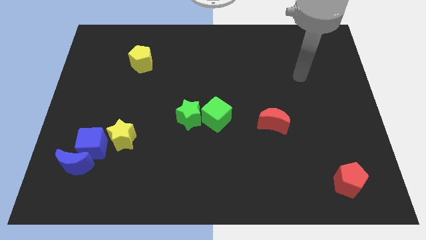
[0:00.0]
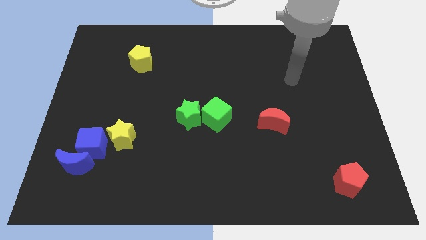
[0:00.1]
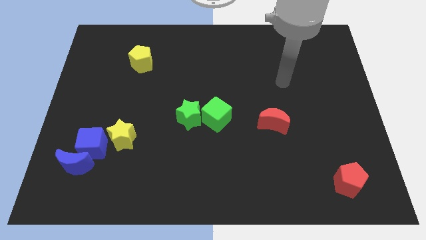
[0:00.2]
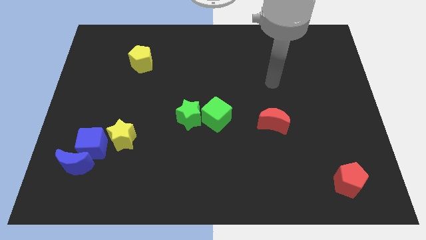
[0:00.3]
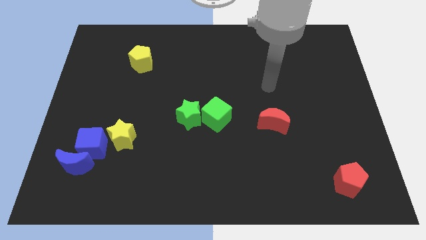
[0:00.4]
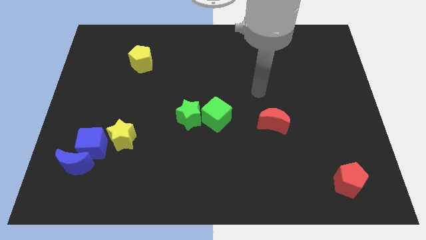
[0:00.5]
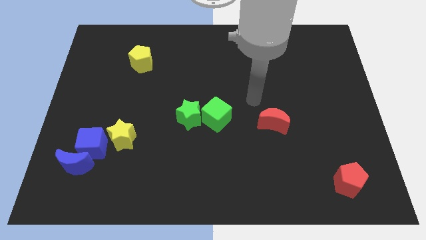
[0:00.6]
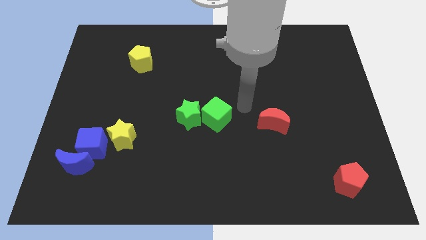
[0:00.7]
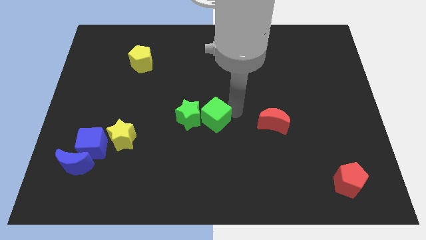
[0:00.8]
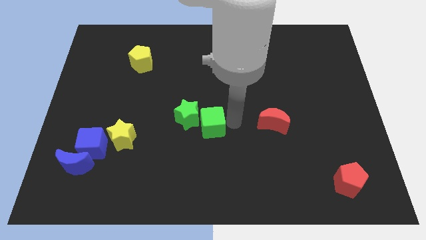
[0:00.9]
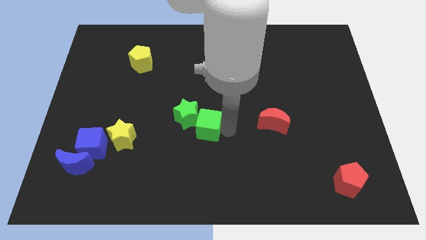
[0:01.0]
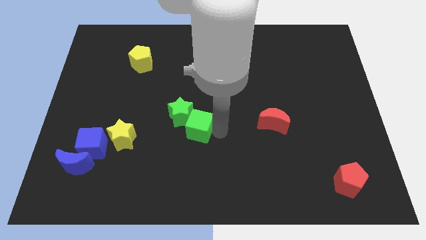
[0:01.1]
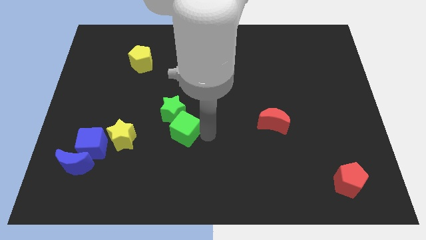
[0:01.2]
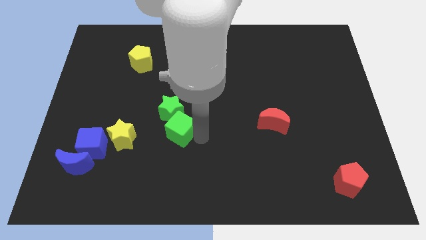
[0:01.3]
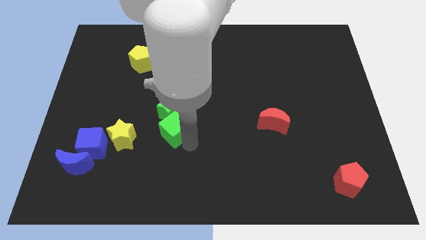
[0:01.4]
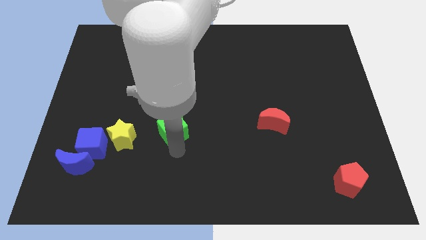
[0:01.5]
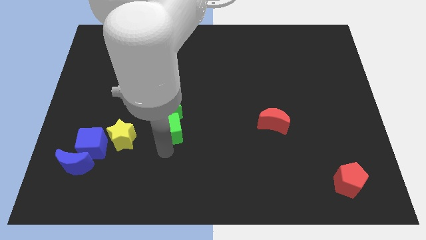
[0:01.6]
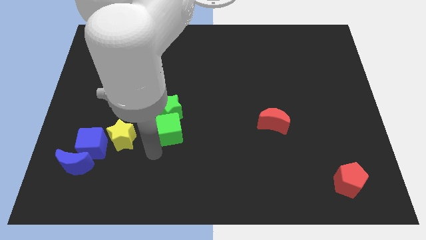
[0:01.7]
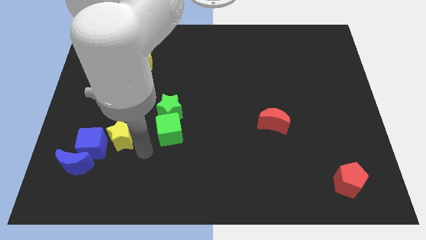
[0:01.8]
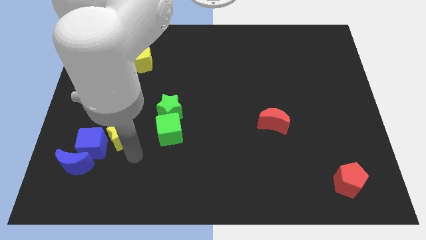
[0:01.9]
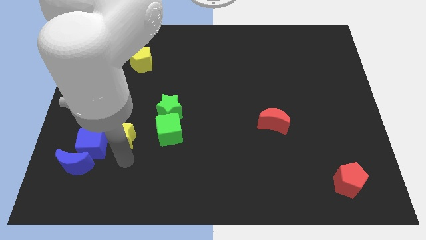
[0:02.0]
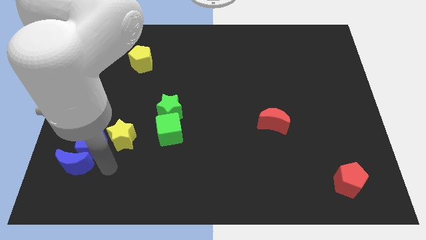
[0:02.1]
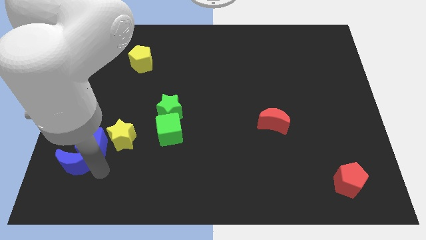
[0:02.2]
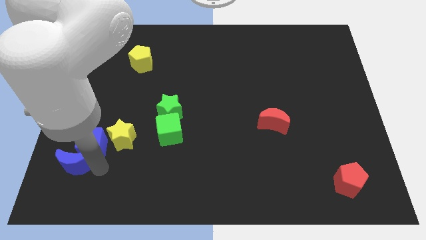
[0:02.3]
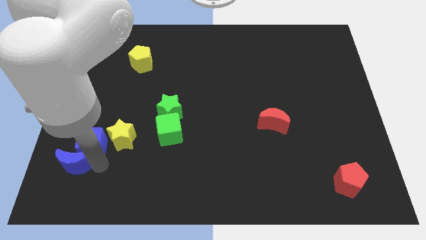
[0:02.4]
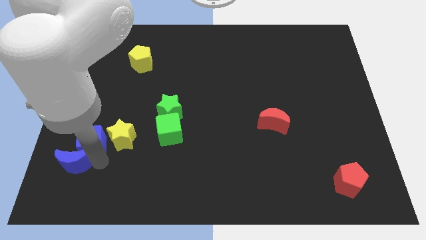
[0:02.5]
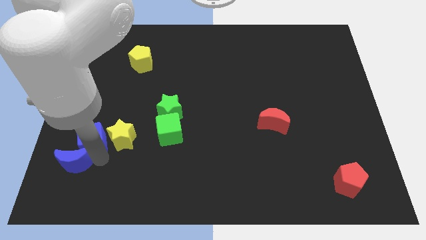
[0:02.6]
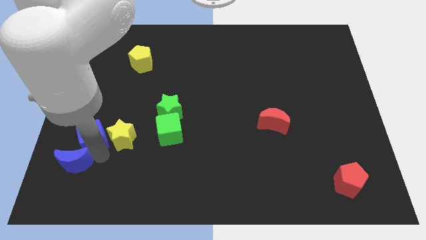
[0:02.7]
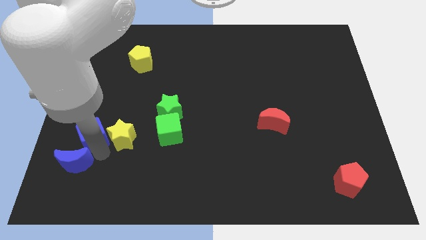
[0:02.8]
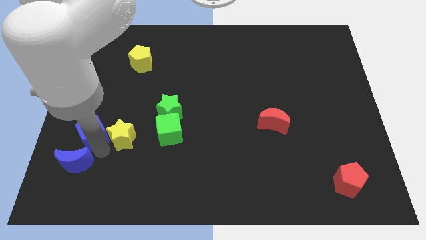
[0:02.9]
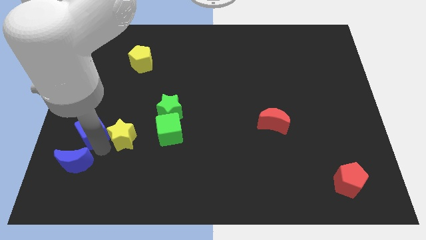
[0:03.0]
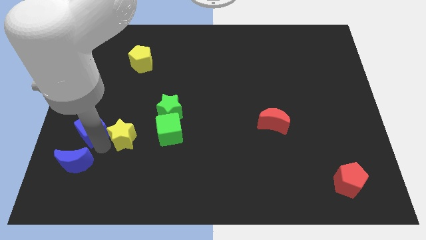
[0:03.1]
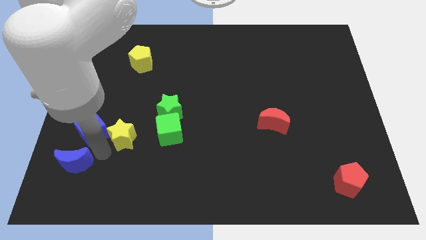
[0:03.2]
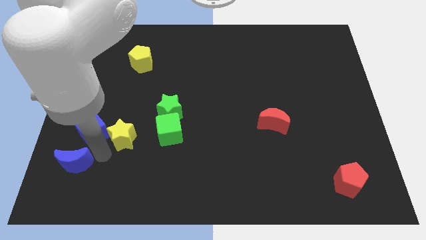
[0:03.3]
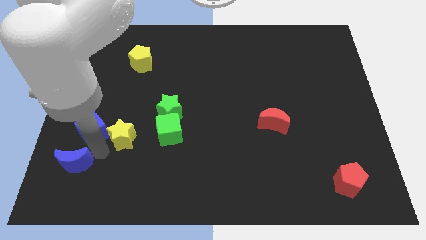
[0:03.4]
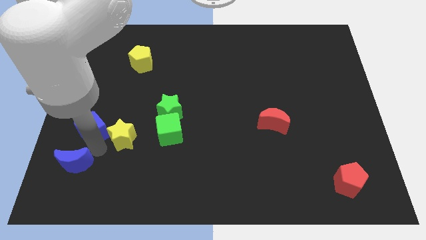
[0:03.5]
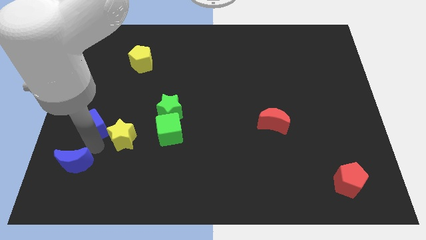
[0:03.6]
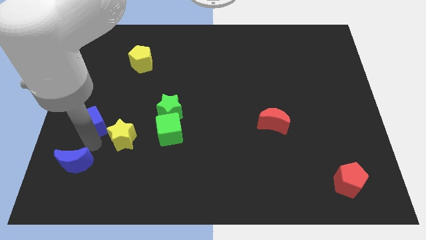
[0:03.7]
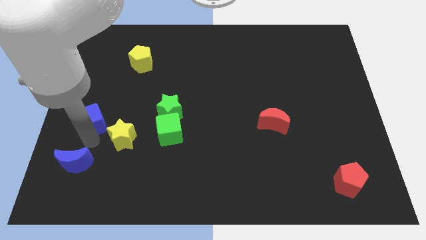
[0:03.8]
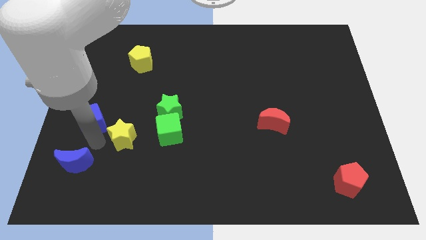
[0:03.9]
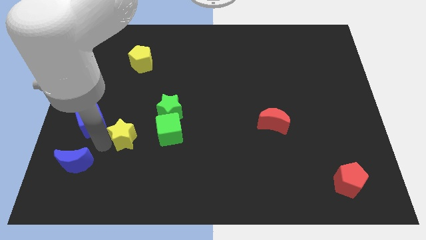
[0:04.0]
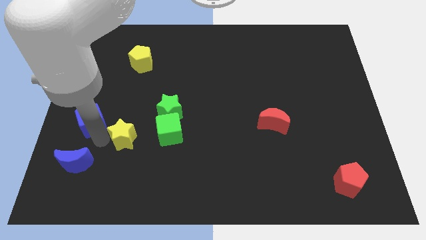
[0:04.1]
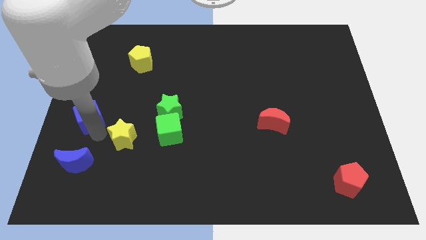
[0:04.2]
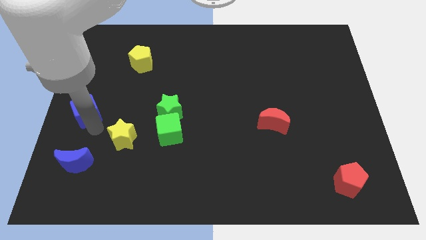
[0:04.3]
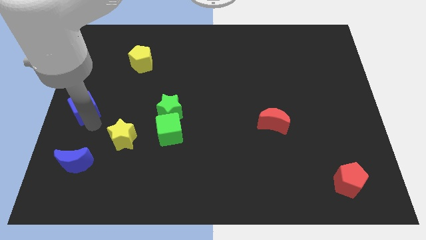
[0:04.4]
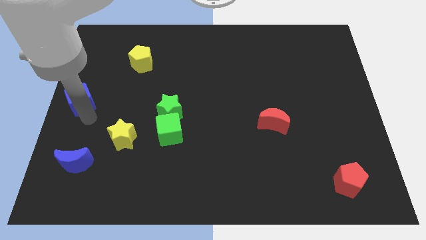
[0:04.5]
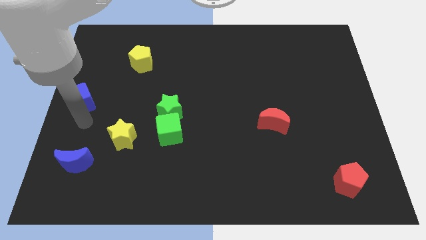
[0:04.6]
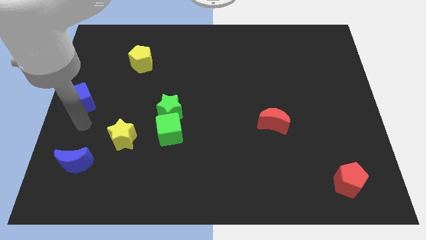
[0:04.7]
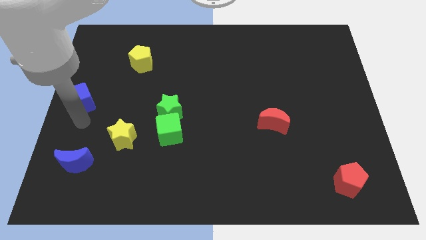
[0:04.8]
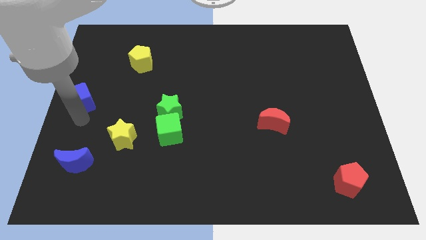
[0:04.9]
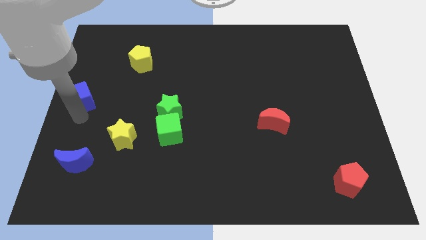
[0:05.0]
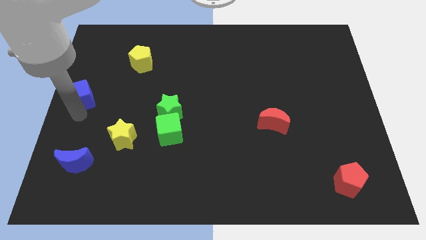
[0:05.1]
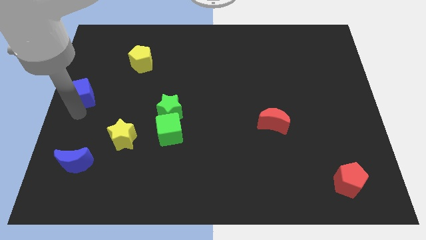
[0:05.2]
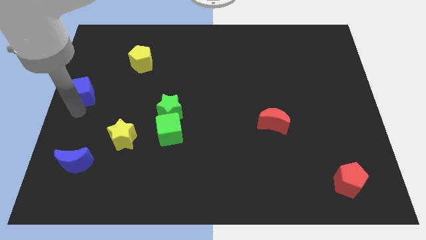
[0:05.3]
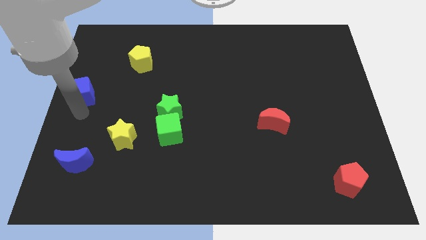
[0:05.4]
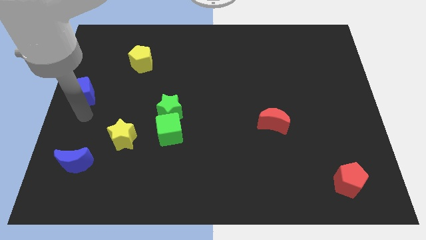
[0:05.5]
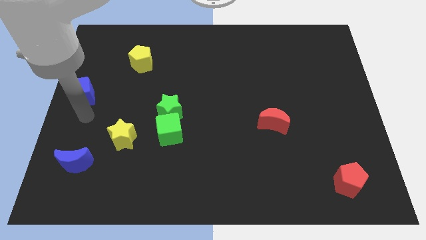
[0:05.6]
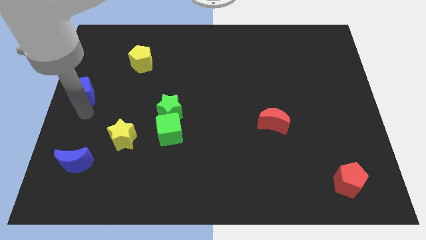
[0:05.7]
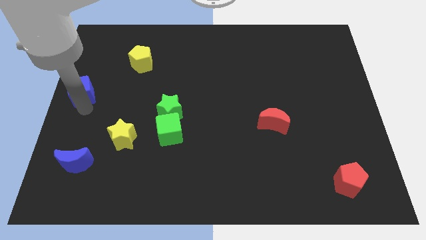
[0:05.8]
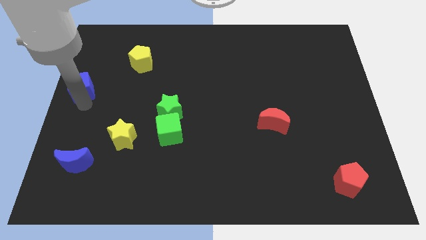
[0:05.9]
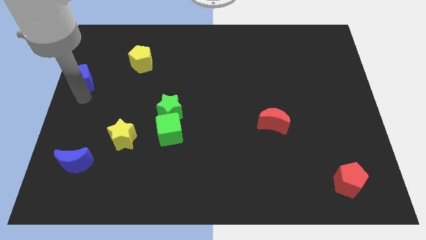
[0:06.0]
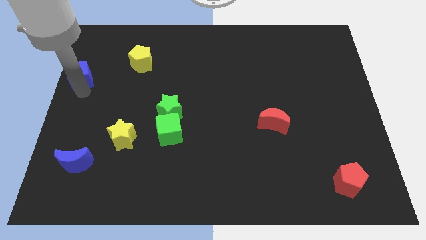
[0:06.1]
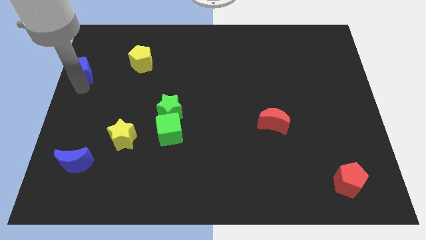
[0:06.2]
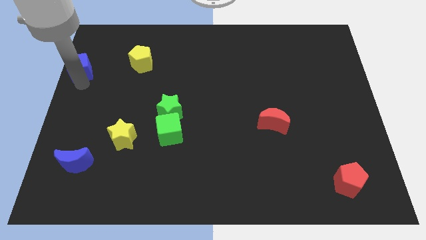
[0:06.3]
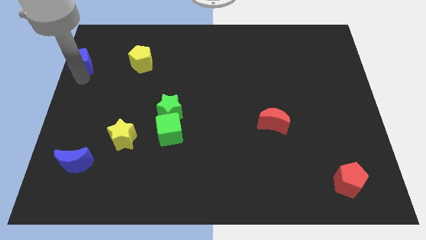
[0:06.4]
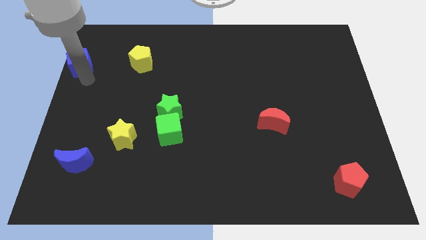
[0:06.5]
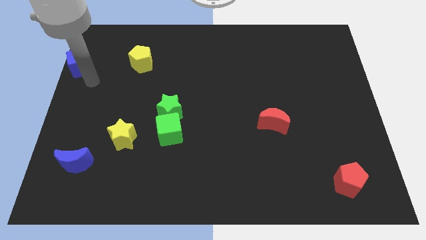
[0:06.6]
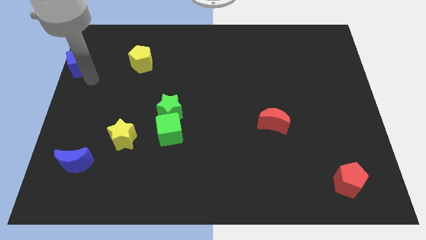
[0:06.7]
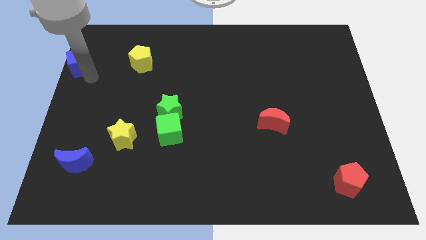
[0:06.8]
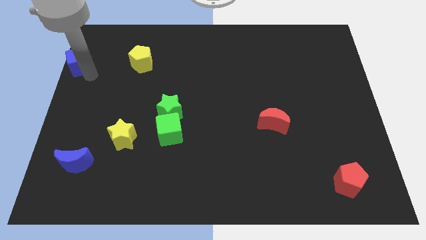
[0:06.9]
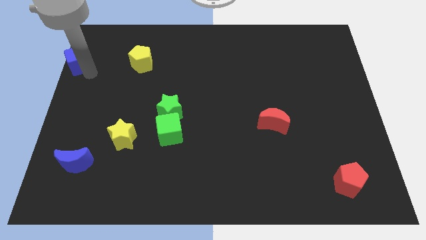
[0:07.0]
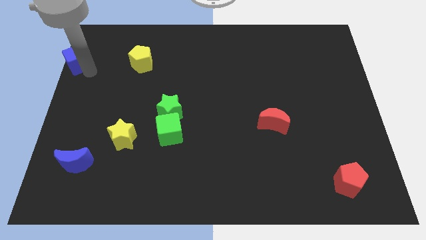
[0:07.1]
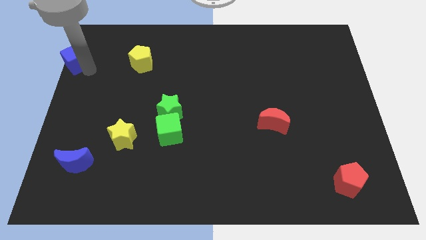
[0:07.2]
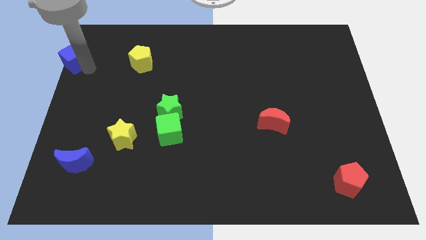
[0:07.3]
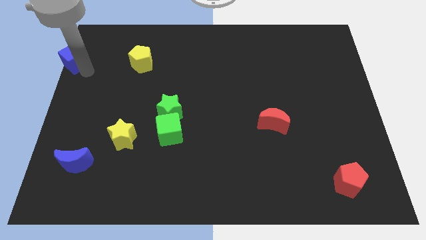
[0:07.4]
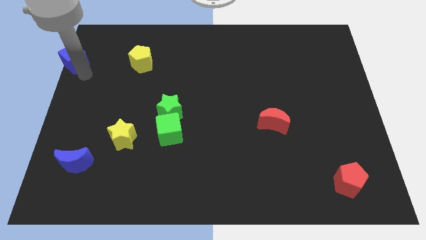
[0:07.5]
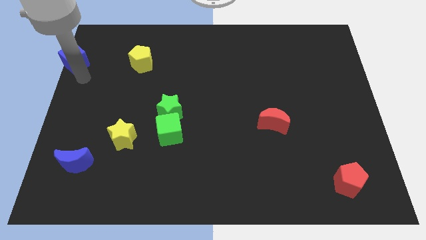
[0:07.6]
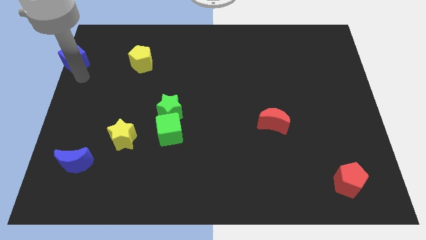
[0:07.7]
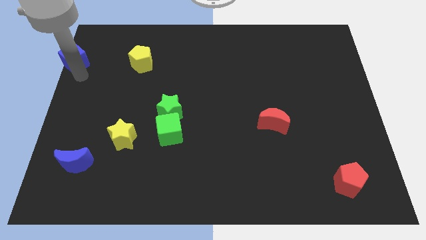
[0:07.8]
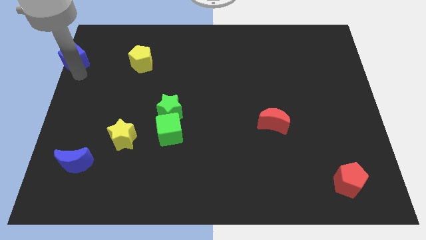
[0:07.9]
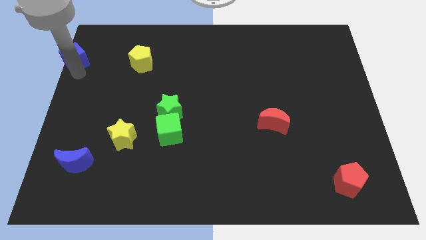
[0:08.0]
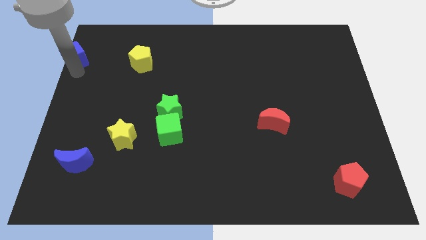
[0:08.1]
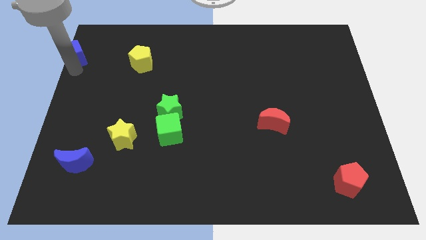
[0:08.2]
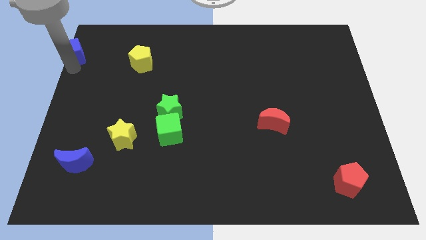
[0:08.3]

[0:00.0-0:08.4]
push the blue cube to the upper left corner
